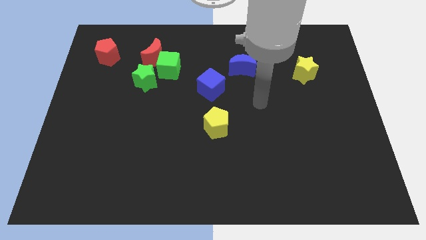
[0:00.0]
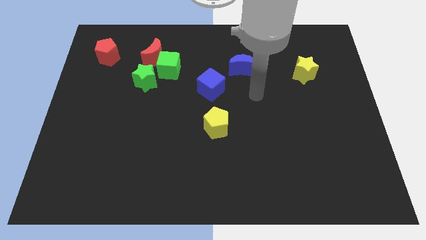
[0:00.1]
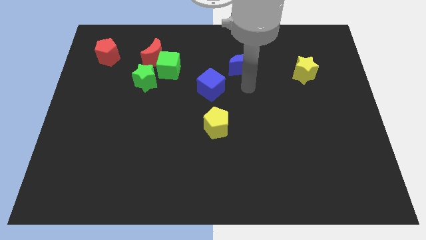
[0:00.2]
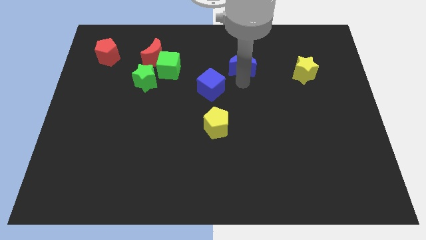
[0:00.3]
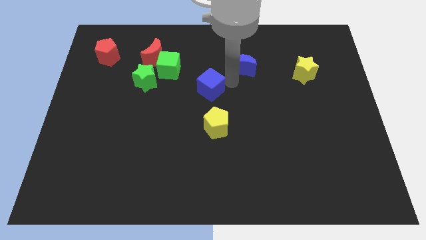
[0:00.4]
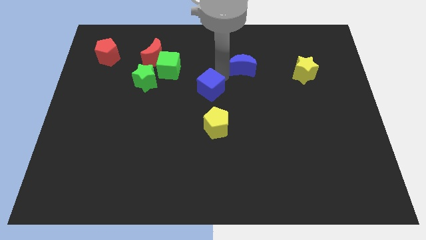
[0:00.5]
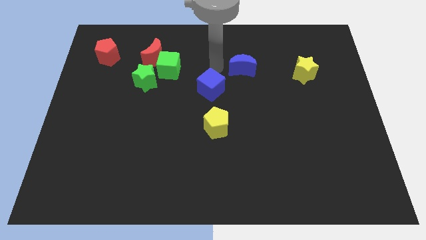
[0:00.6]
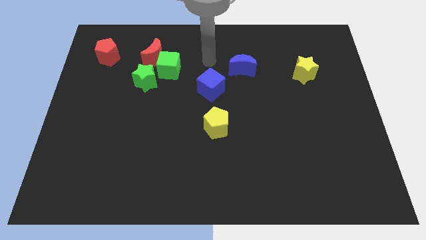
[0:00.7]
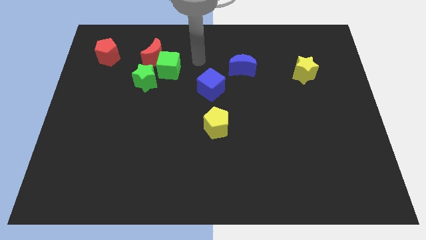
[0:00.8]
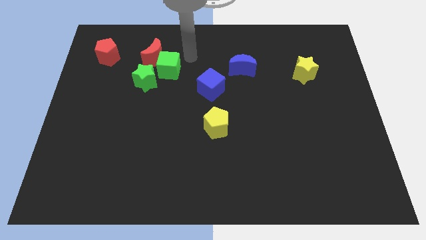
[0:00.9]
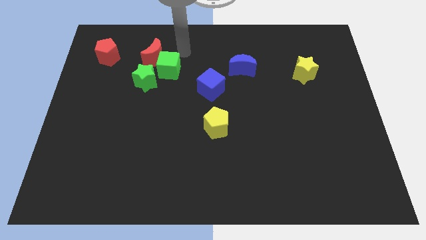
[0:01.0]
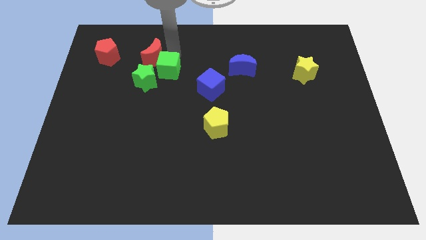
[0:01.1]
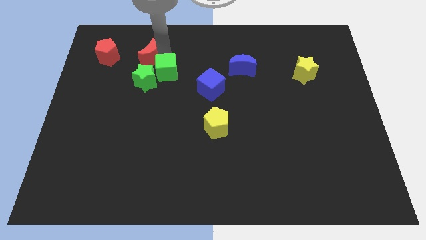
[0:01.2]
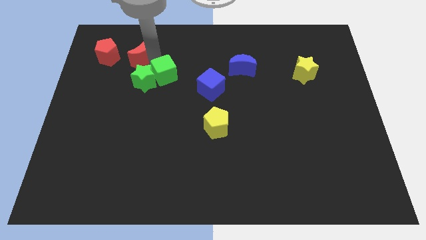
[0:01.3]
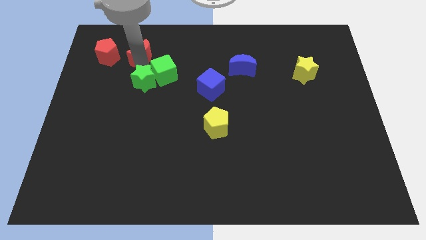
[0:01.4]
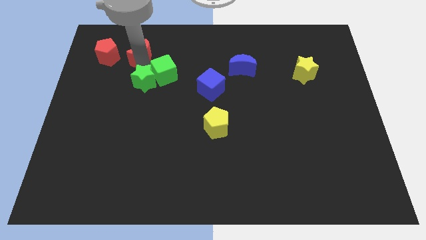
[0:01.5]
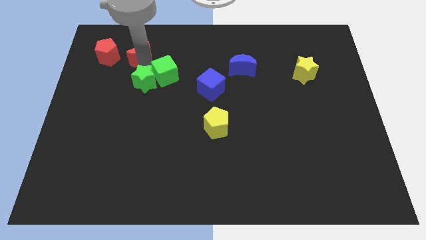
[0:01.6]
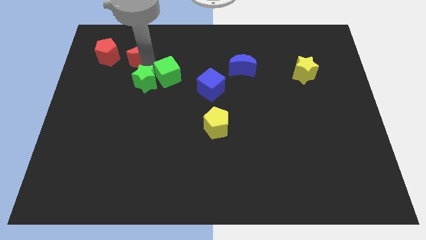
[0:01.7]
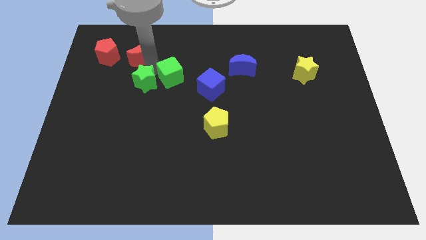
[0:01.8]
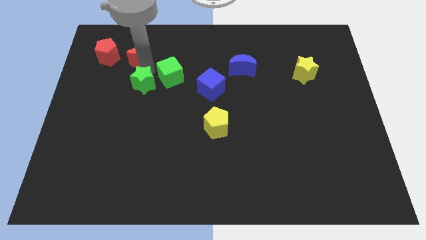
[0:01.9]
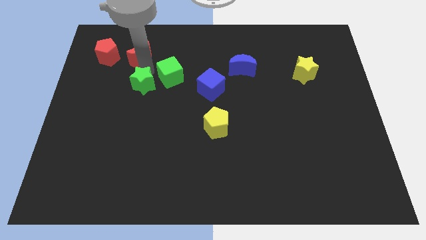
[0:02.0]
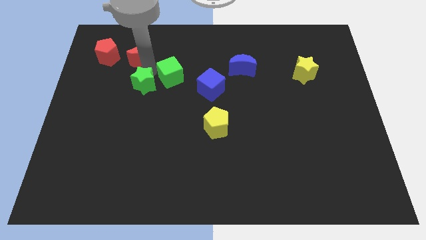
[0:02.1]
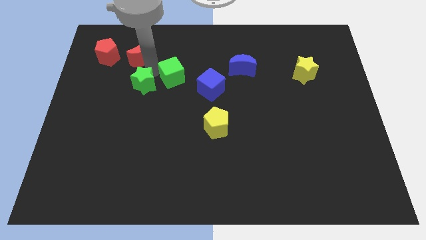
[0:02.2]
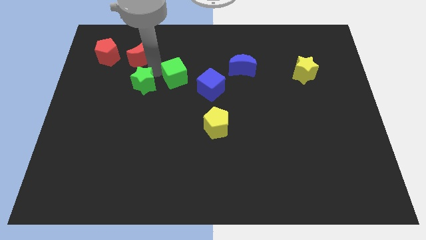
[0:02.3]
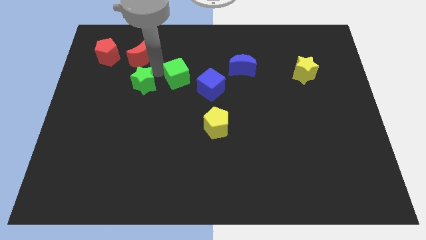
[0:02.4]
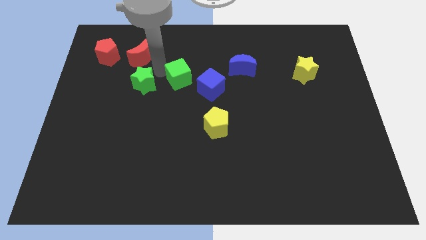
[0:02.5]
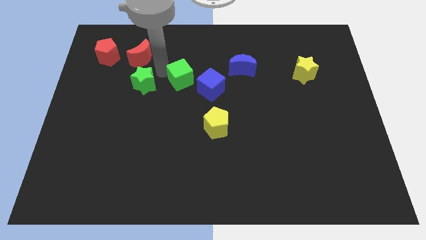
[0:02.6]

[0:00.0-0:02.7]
move the green cube away from the red moon and green star

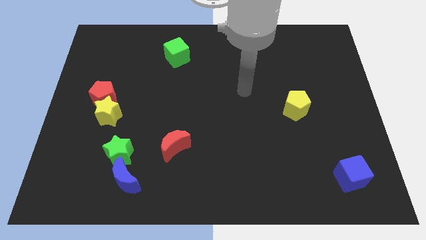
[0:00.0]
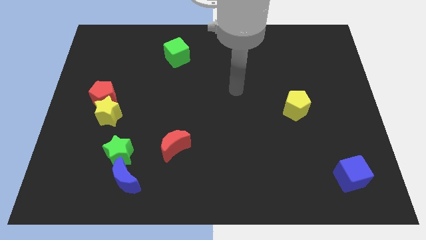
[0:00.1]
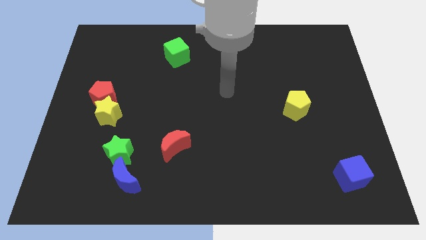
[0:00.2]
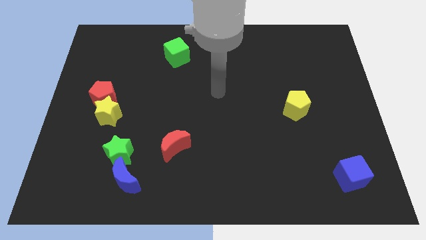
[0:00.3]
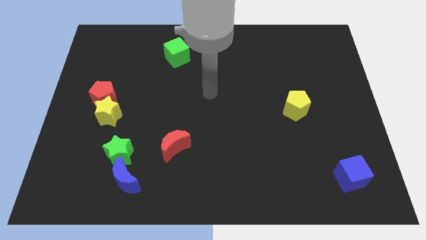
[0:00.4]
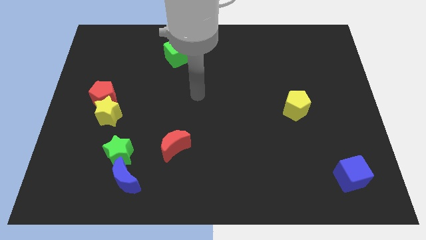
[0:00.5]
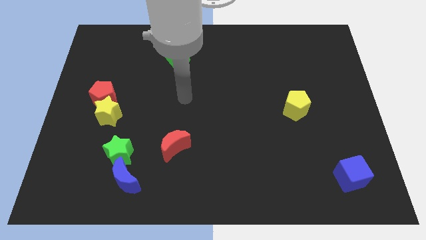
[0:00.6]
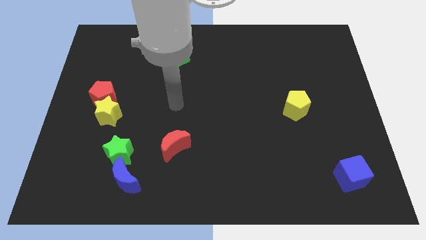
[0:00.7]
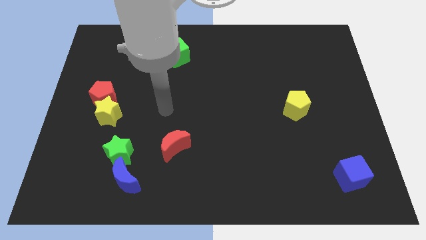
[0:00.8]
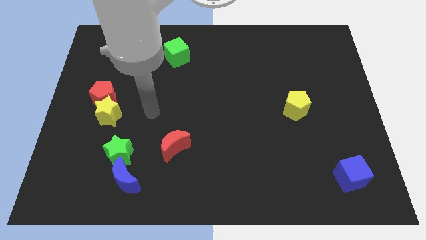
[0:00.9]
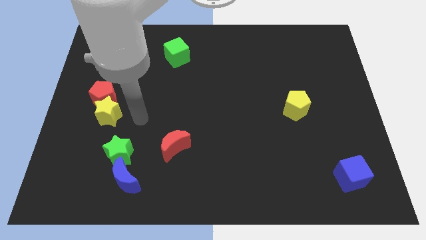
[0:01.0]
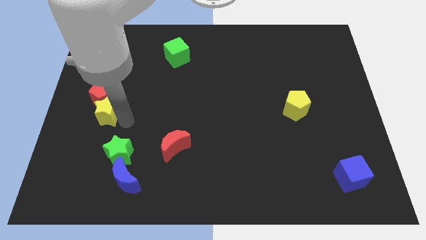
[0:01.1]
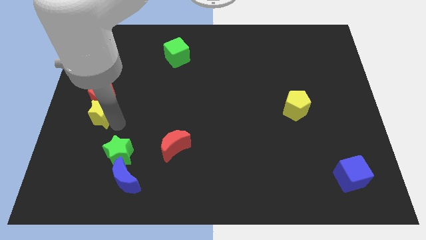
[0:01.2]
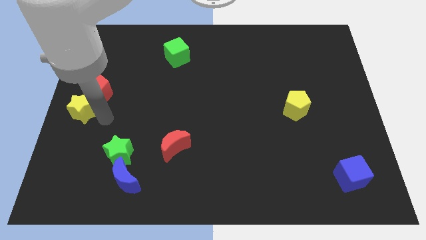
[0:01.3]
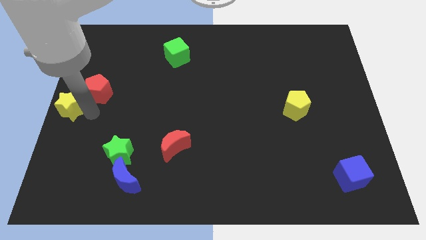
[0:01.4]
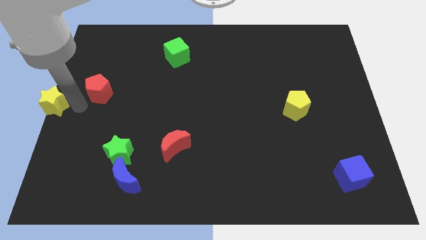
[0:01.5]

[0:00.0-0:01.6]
separate the red pentagon from the yellow star

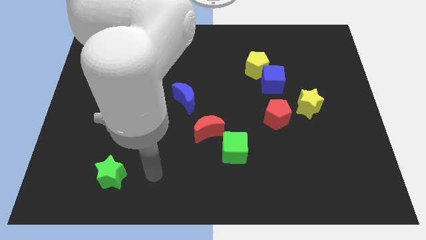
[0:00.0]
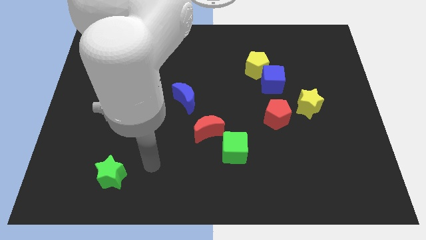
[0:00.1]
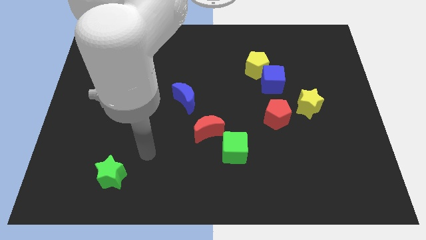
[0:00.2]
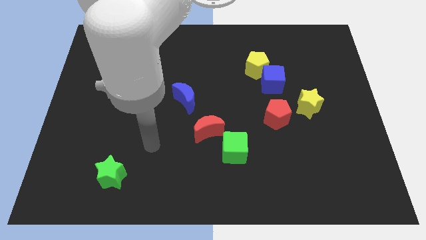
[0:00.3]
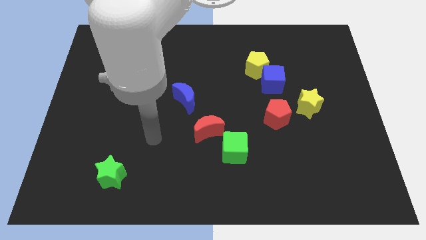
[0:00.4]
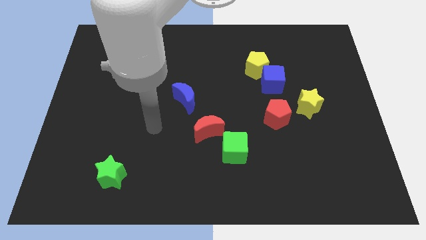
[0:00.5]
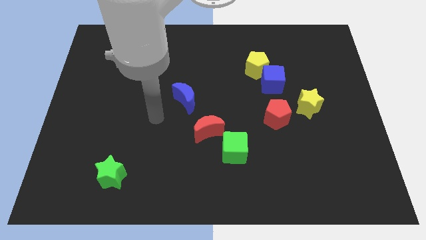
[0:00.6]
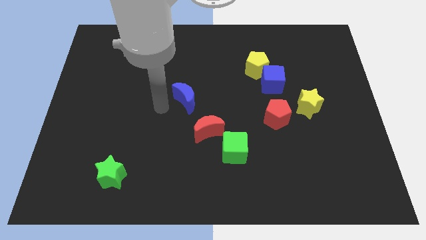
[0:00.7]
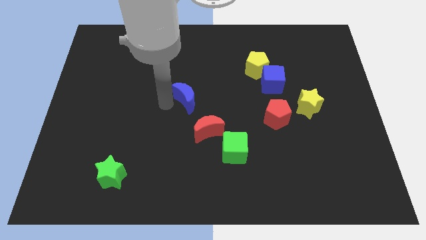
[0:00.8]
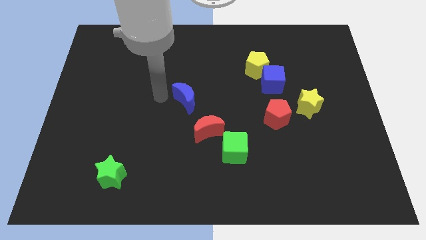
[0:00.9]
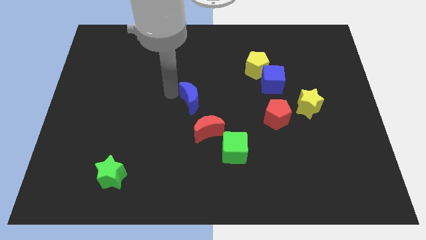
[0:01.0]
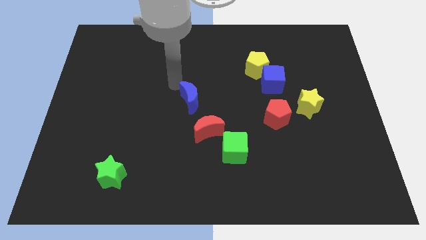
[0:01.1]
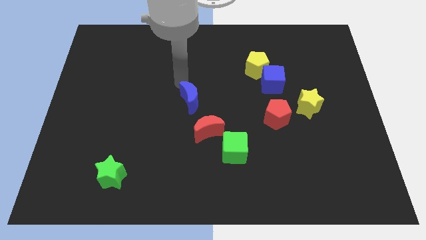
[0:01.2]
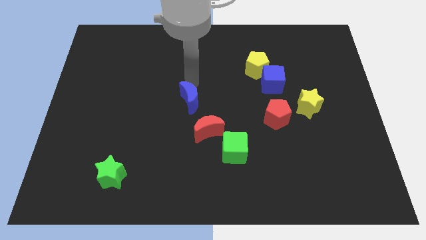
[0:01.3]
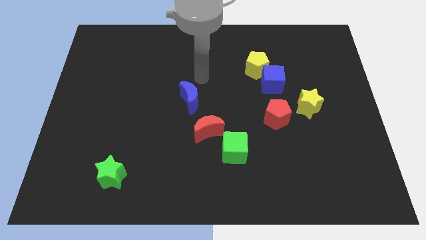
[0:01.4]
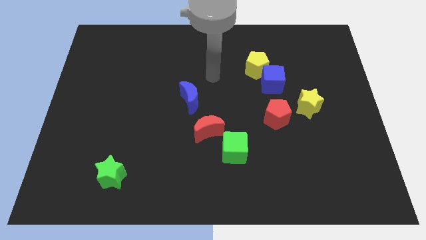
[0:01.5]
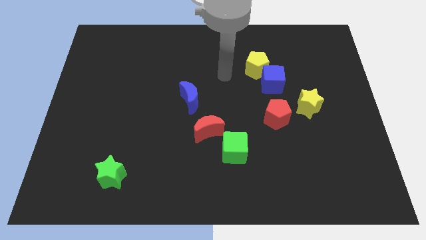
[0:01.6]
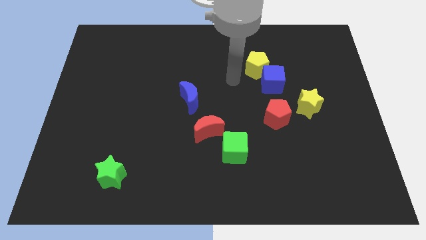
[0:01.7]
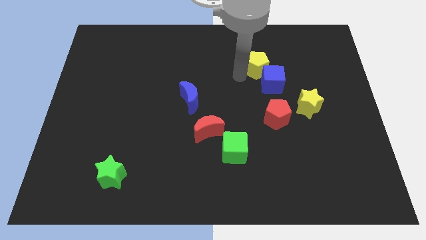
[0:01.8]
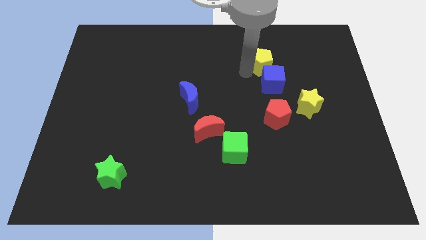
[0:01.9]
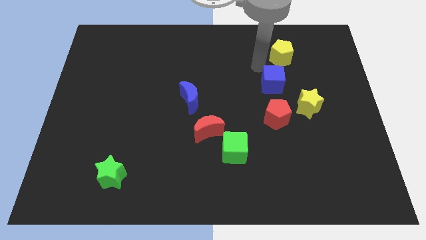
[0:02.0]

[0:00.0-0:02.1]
pull the blue cube apart from the yellow pentagon

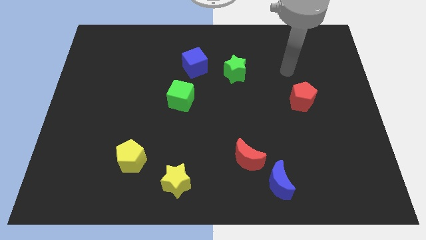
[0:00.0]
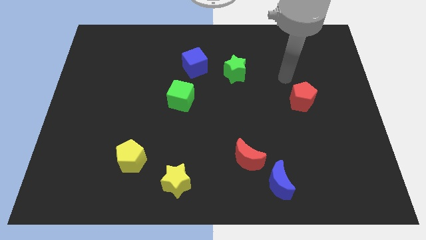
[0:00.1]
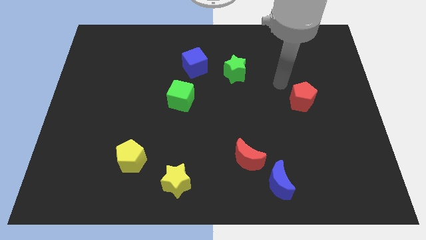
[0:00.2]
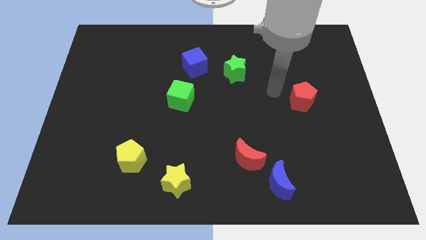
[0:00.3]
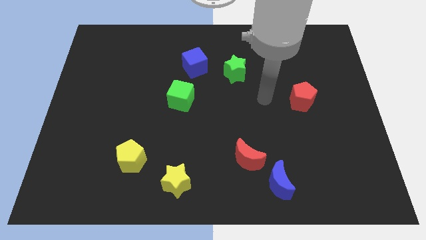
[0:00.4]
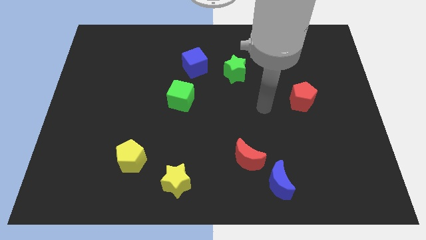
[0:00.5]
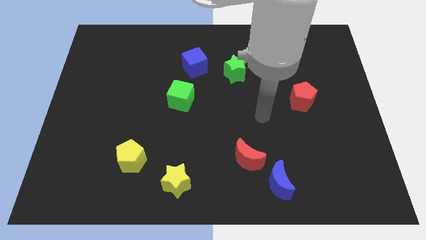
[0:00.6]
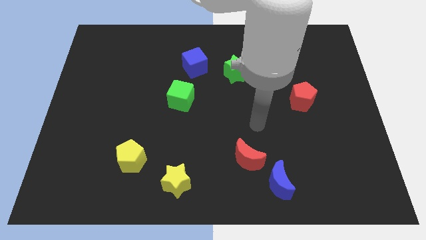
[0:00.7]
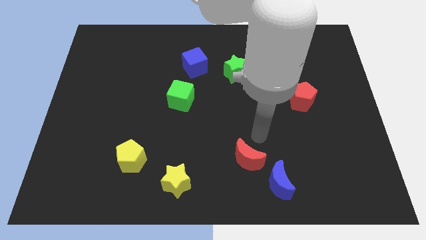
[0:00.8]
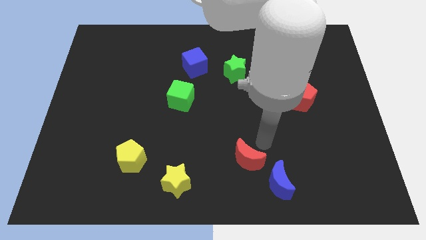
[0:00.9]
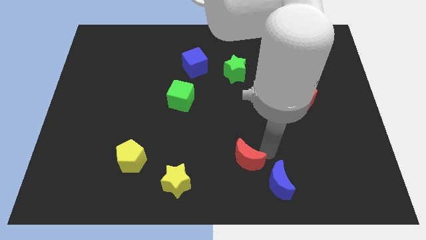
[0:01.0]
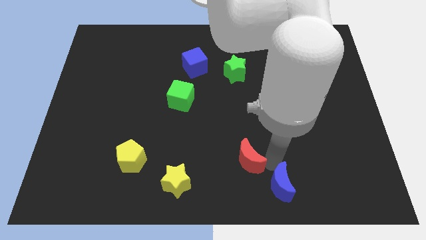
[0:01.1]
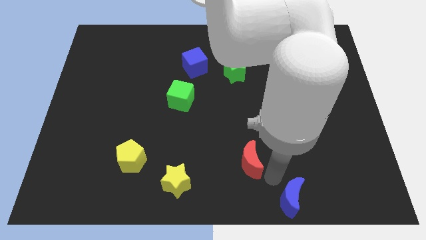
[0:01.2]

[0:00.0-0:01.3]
move the red moon away from the blue moon

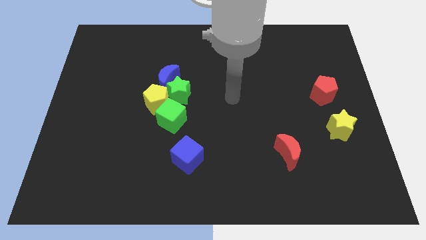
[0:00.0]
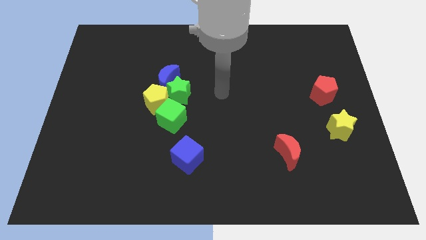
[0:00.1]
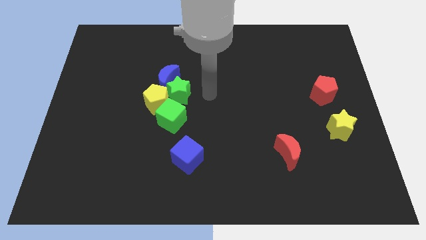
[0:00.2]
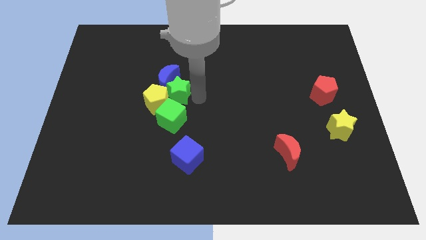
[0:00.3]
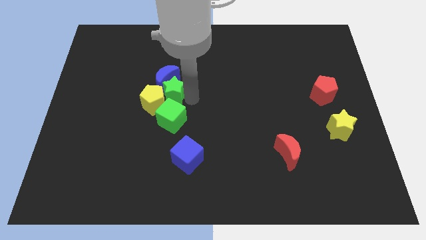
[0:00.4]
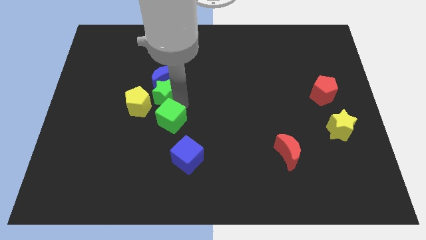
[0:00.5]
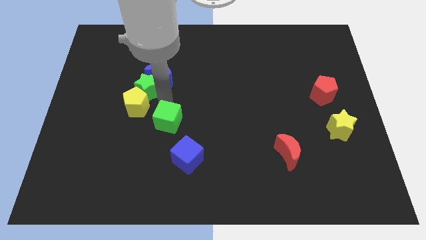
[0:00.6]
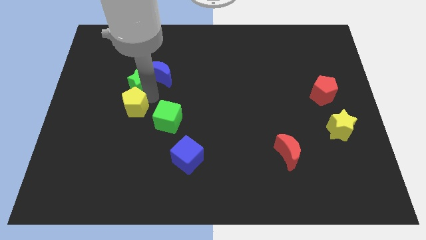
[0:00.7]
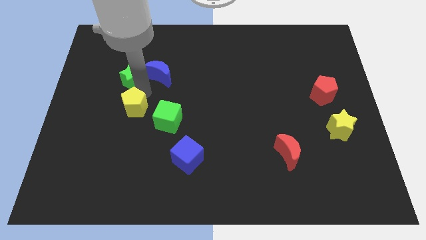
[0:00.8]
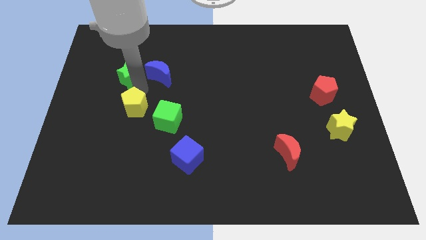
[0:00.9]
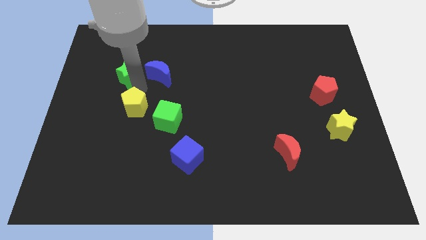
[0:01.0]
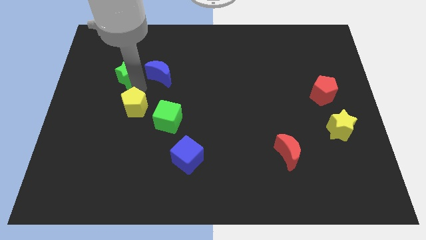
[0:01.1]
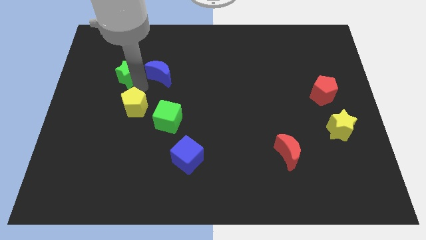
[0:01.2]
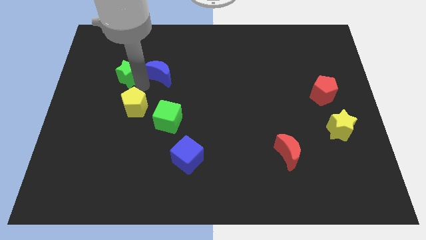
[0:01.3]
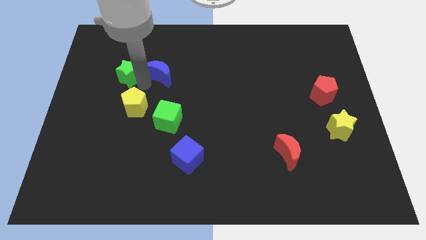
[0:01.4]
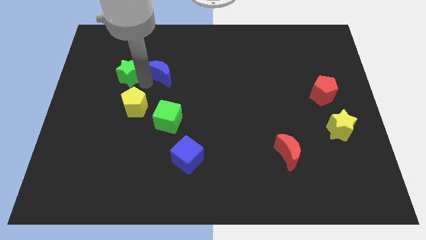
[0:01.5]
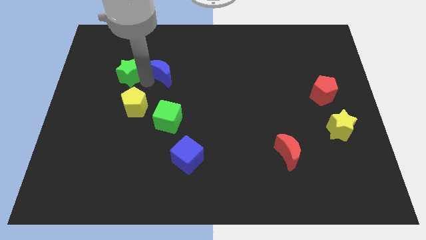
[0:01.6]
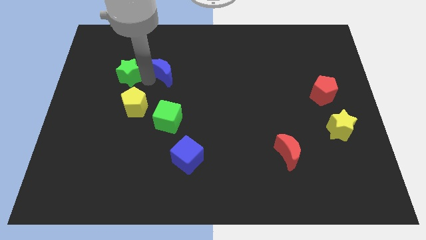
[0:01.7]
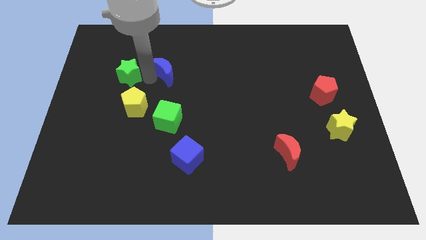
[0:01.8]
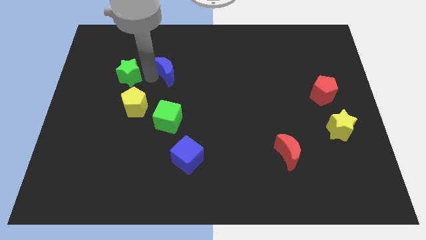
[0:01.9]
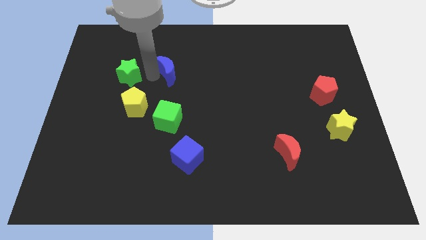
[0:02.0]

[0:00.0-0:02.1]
pull the blue moon apart from the green star and yellow pentagon
